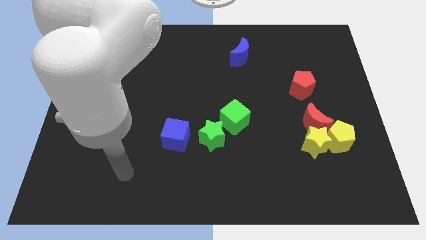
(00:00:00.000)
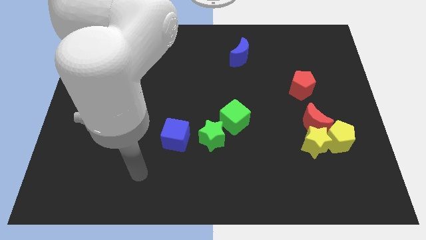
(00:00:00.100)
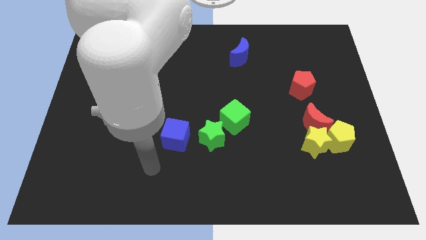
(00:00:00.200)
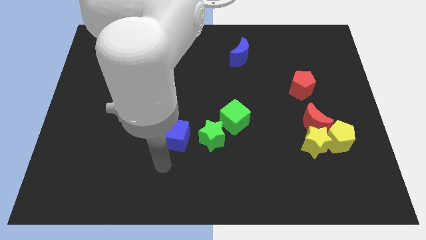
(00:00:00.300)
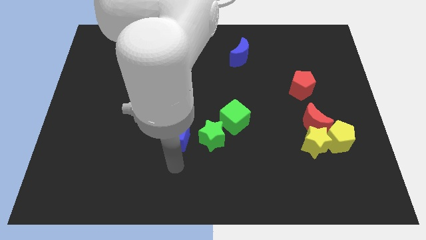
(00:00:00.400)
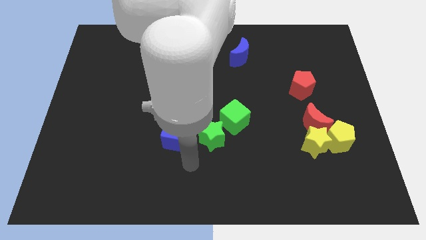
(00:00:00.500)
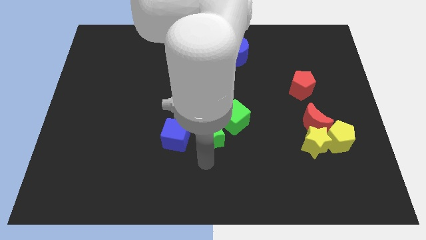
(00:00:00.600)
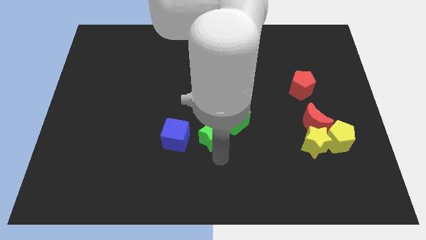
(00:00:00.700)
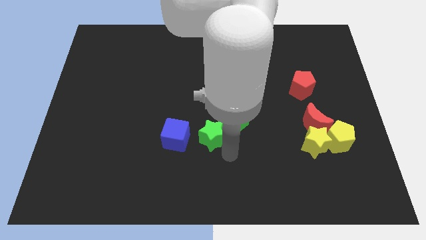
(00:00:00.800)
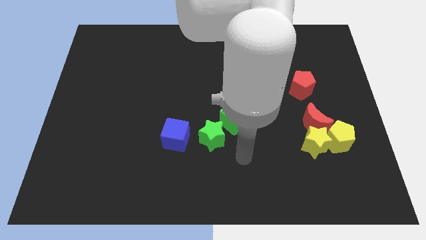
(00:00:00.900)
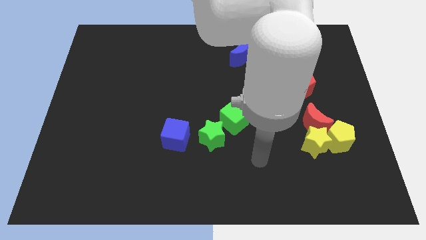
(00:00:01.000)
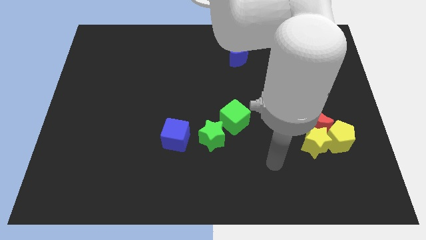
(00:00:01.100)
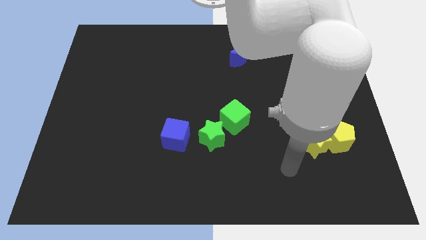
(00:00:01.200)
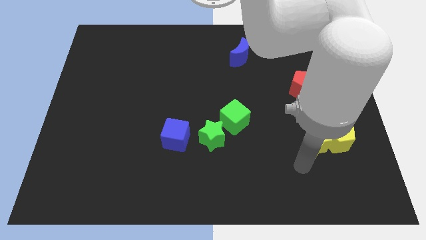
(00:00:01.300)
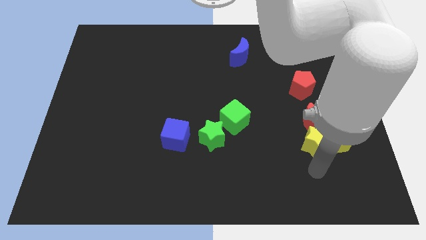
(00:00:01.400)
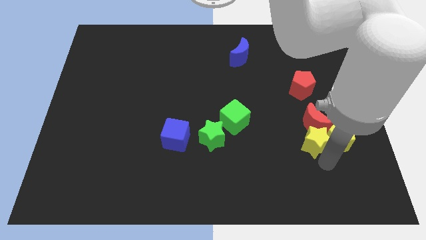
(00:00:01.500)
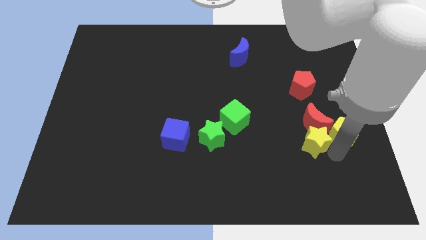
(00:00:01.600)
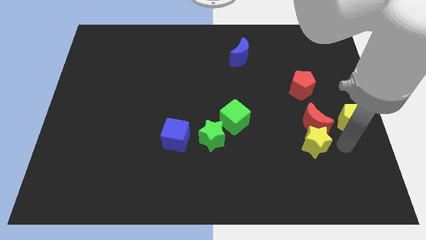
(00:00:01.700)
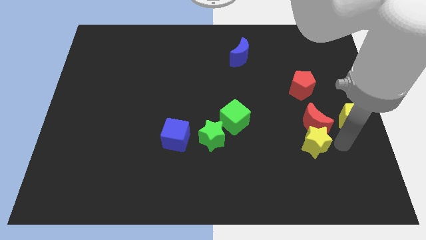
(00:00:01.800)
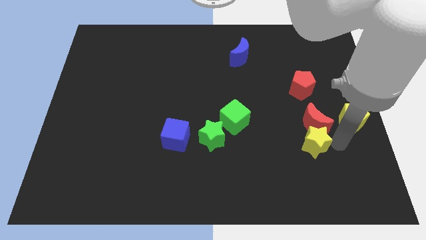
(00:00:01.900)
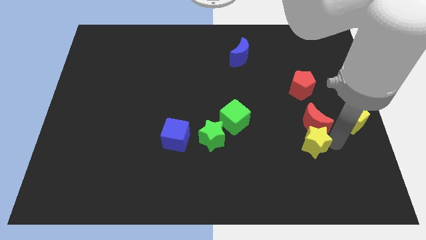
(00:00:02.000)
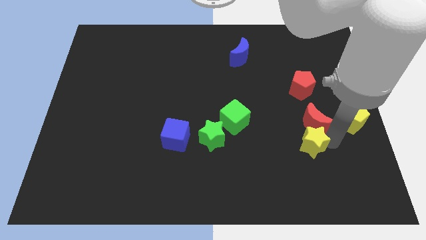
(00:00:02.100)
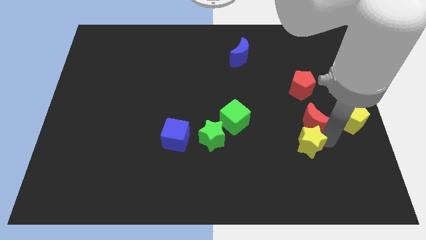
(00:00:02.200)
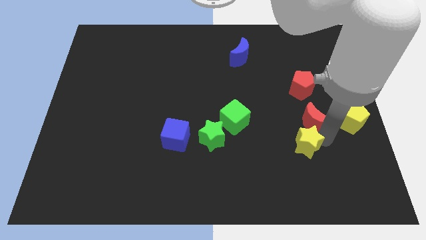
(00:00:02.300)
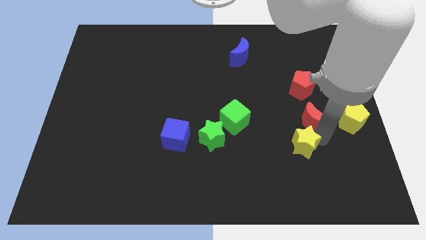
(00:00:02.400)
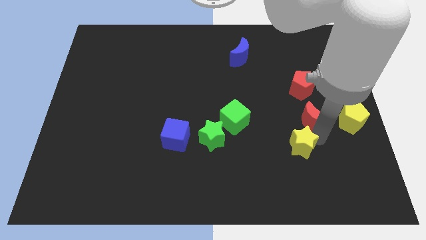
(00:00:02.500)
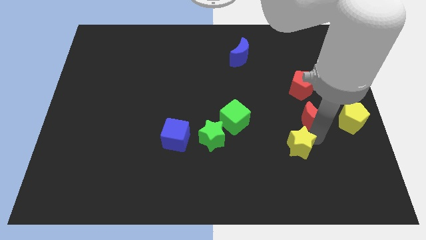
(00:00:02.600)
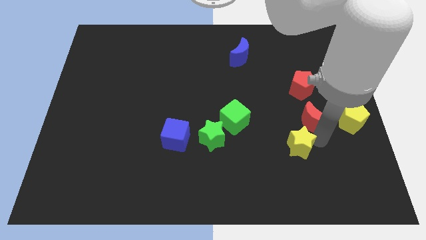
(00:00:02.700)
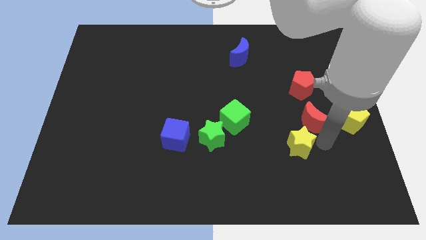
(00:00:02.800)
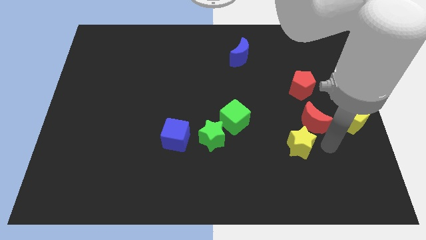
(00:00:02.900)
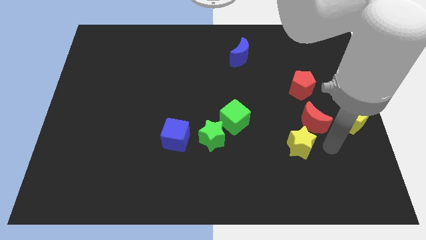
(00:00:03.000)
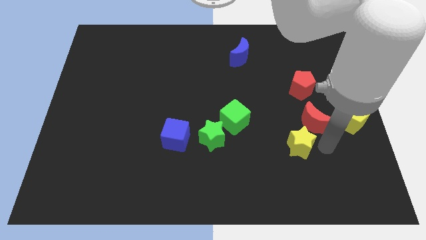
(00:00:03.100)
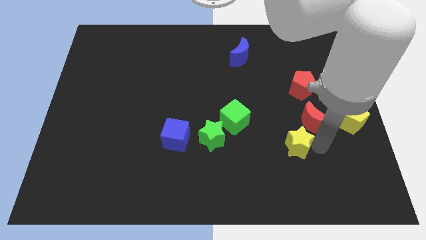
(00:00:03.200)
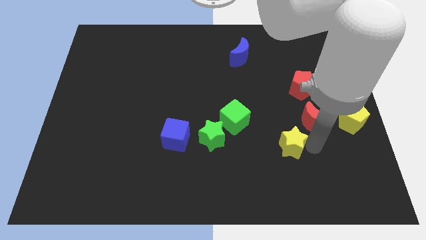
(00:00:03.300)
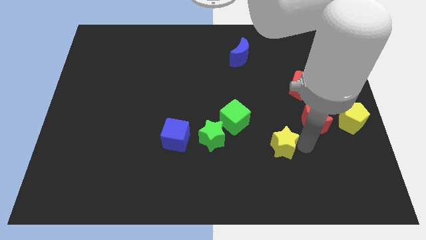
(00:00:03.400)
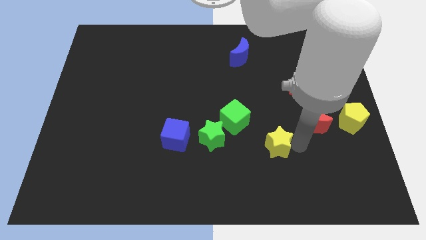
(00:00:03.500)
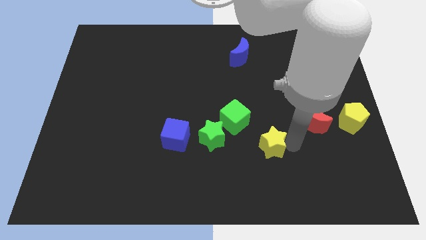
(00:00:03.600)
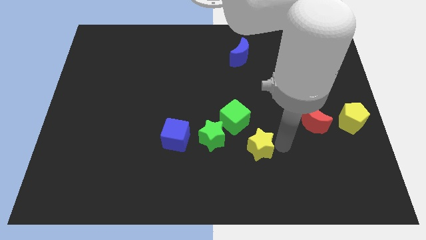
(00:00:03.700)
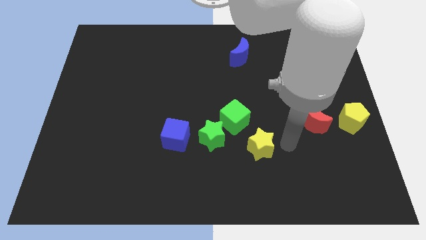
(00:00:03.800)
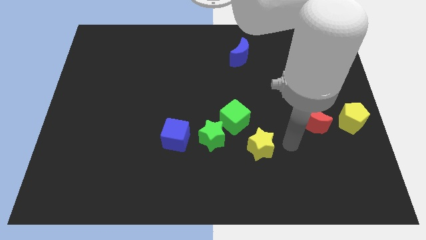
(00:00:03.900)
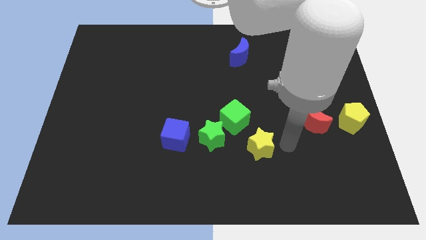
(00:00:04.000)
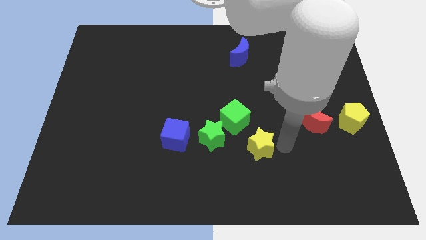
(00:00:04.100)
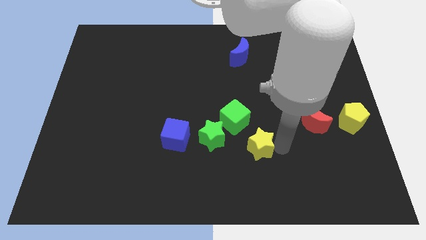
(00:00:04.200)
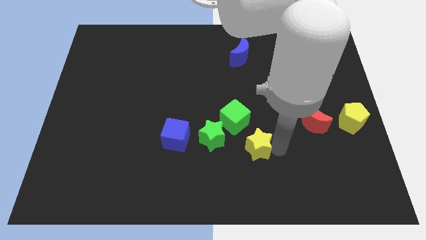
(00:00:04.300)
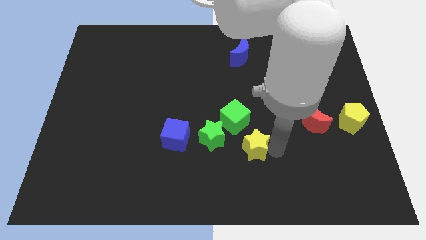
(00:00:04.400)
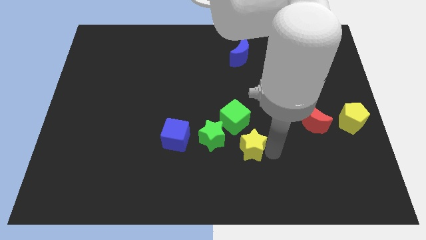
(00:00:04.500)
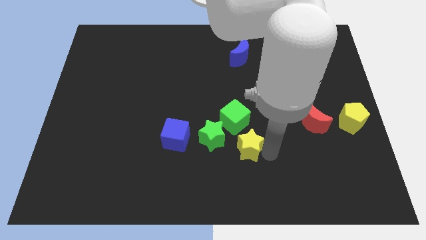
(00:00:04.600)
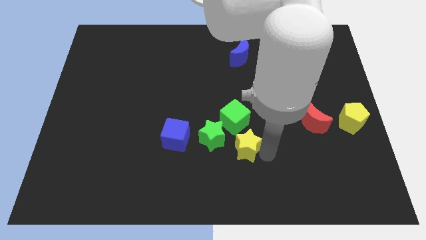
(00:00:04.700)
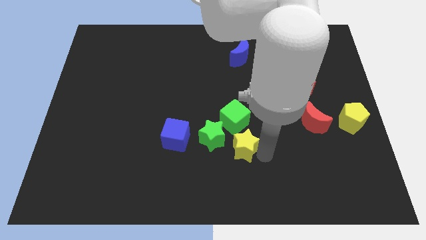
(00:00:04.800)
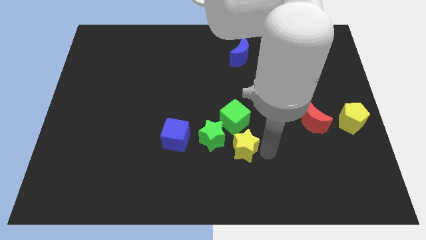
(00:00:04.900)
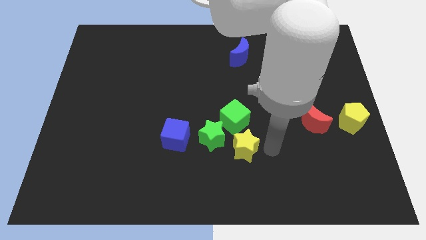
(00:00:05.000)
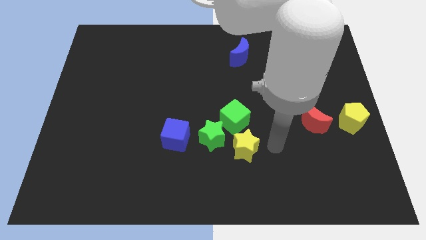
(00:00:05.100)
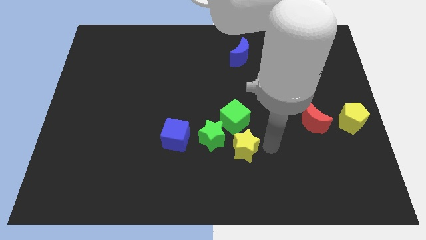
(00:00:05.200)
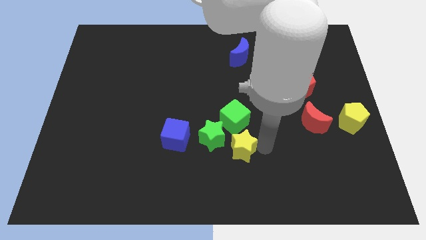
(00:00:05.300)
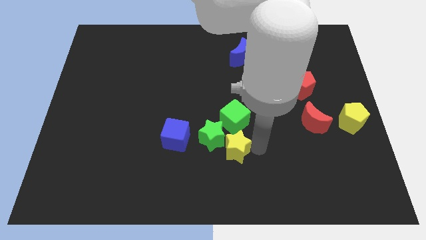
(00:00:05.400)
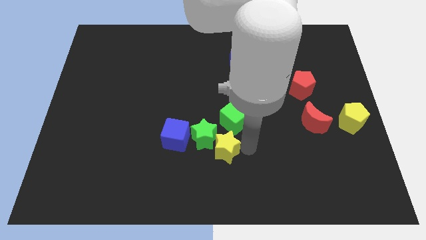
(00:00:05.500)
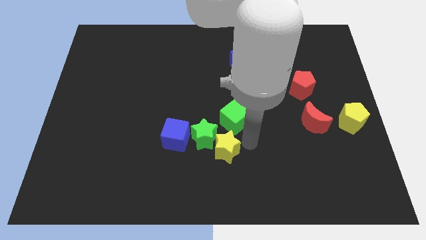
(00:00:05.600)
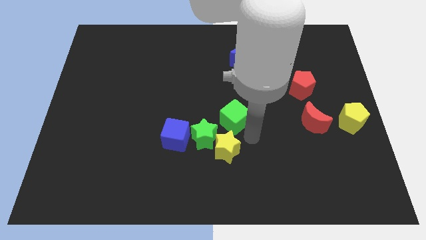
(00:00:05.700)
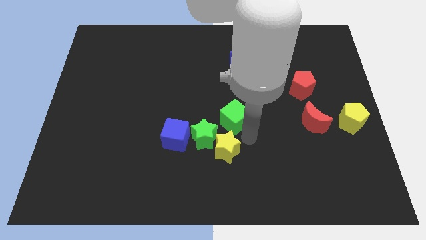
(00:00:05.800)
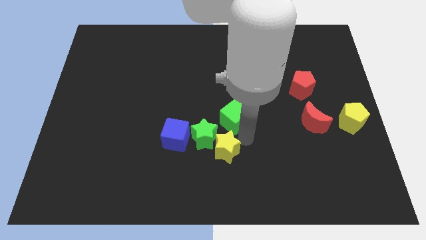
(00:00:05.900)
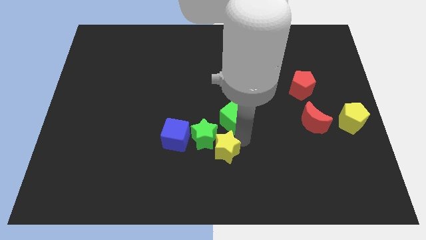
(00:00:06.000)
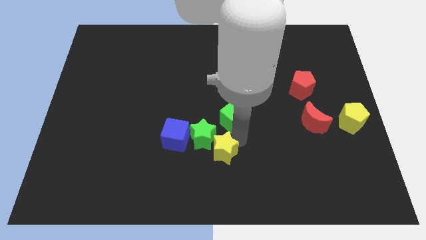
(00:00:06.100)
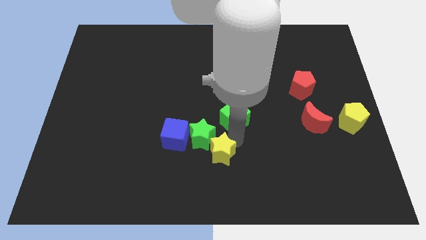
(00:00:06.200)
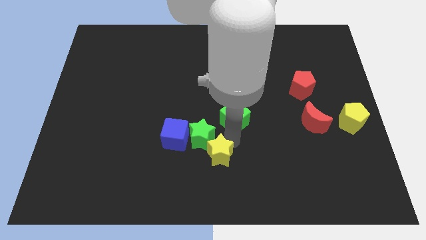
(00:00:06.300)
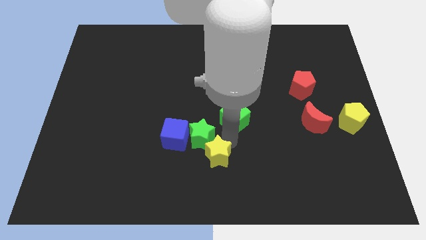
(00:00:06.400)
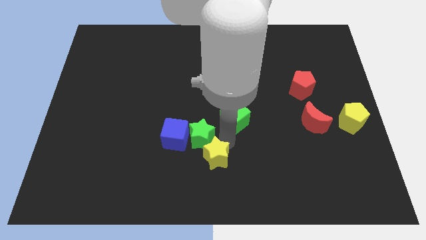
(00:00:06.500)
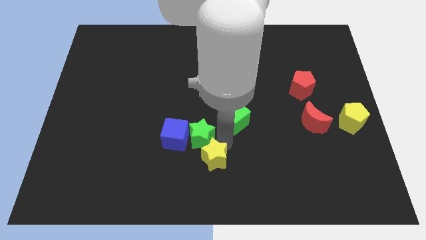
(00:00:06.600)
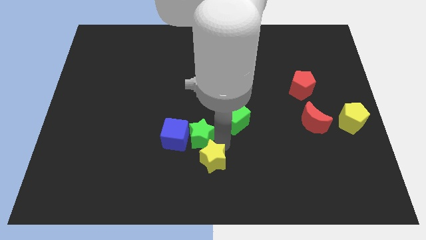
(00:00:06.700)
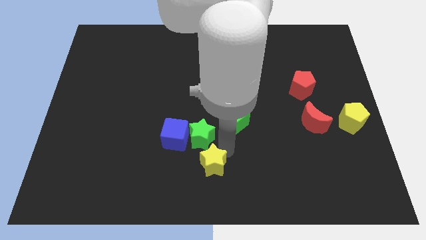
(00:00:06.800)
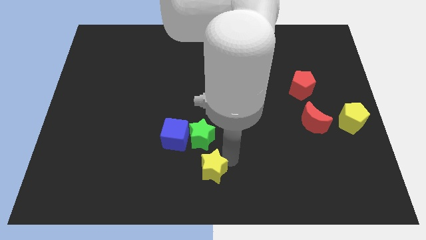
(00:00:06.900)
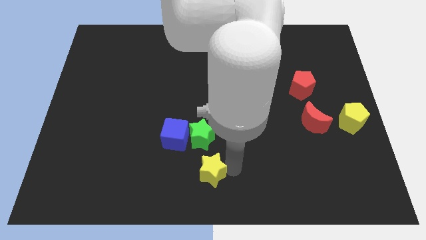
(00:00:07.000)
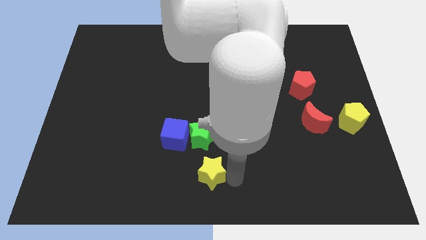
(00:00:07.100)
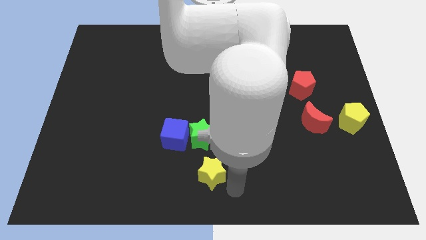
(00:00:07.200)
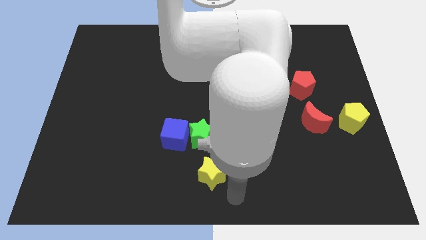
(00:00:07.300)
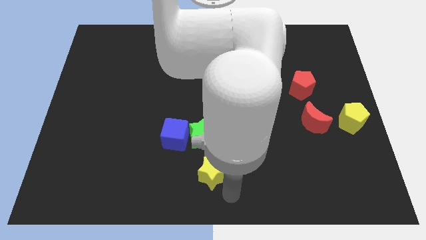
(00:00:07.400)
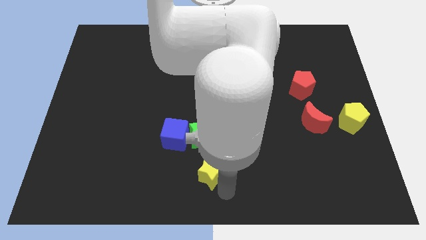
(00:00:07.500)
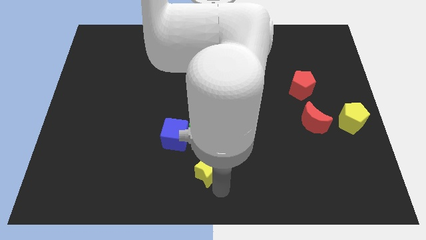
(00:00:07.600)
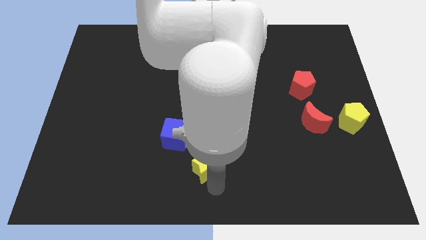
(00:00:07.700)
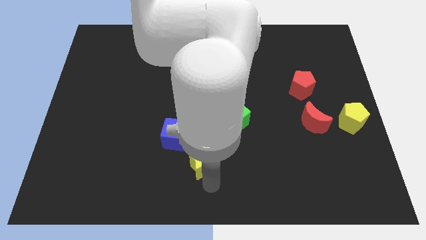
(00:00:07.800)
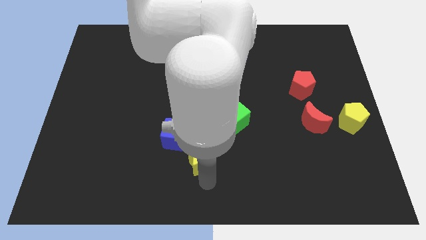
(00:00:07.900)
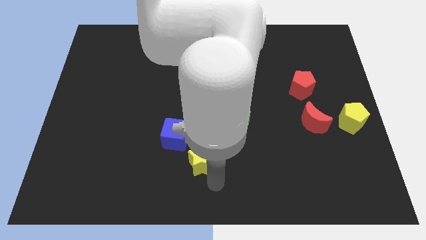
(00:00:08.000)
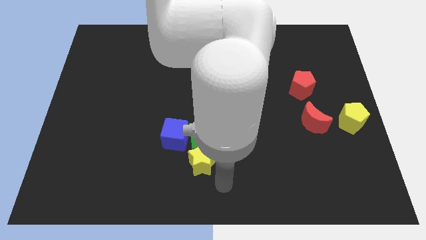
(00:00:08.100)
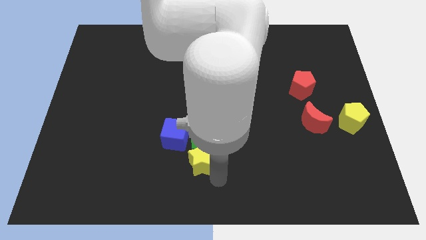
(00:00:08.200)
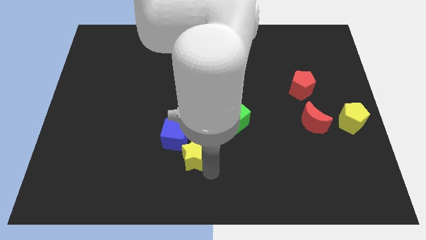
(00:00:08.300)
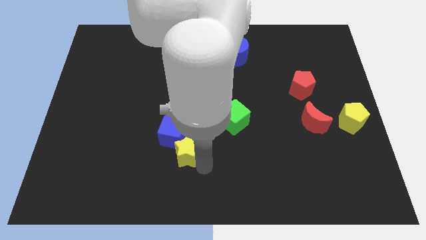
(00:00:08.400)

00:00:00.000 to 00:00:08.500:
move the yellow star close to the blue cube
